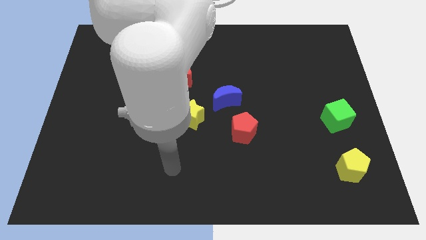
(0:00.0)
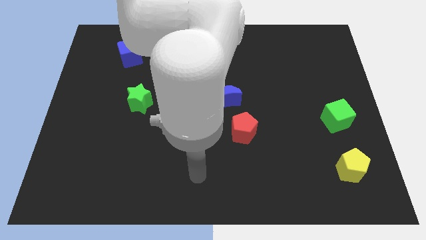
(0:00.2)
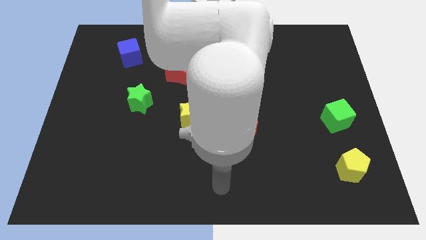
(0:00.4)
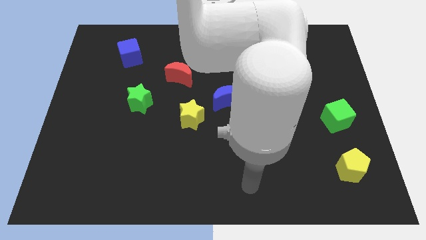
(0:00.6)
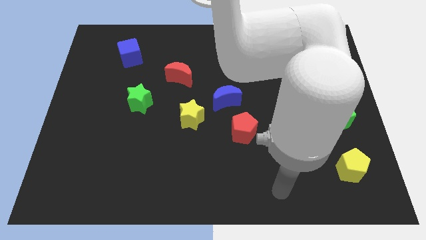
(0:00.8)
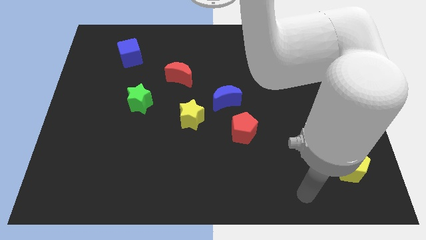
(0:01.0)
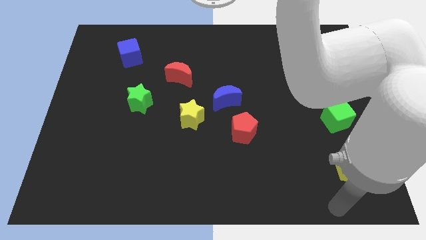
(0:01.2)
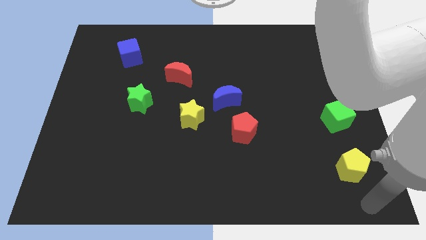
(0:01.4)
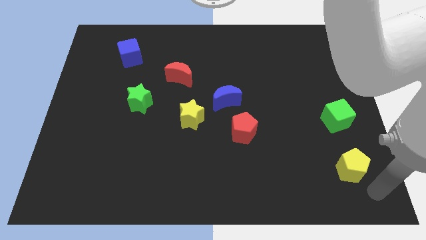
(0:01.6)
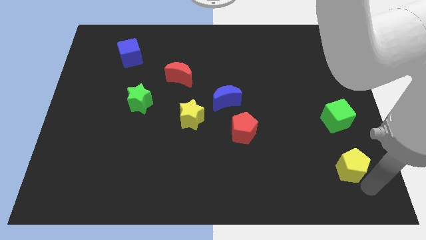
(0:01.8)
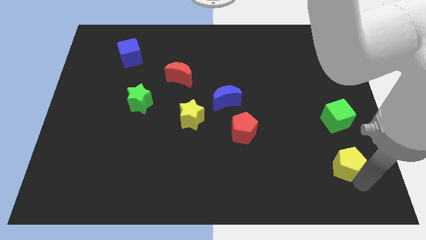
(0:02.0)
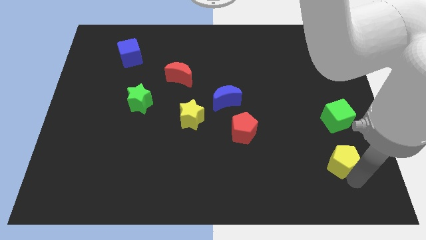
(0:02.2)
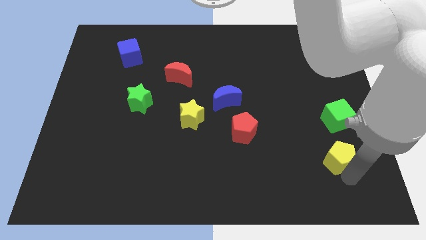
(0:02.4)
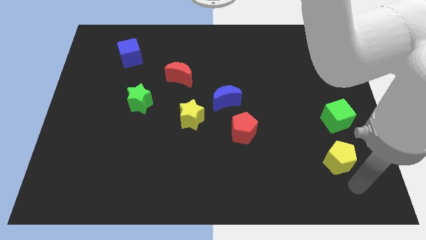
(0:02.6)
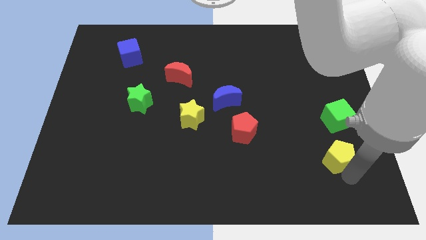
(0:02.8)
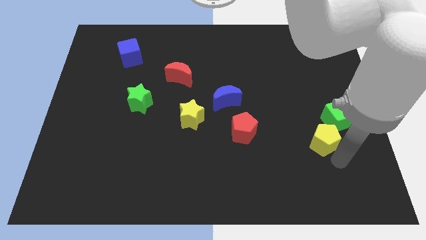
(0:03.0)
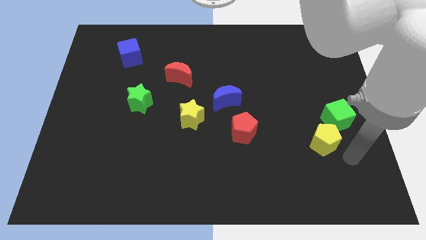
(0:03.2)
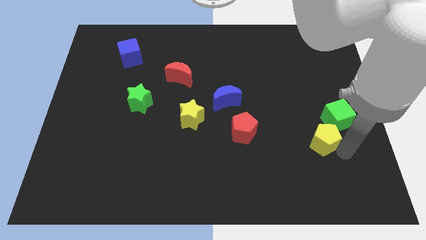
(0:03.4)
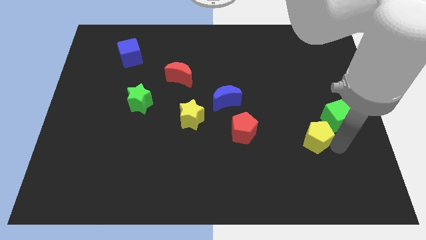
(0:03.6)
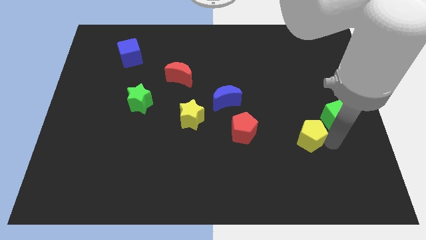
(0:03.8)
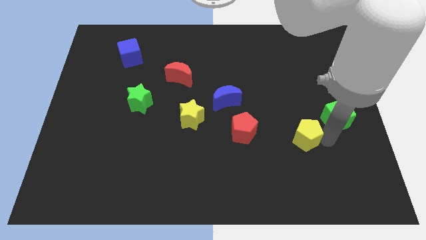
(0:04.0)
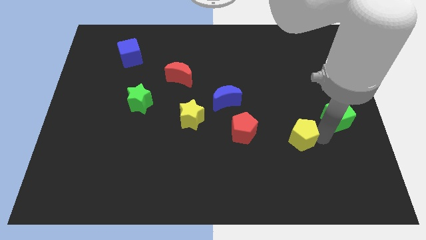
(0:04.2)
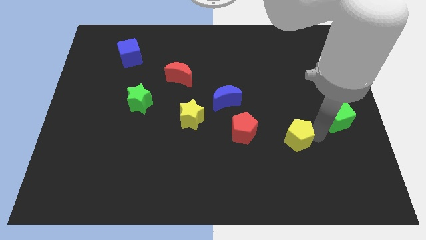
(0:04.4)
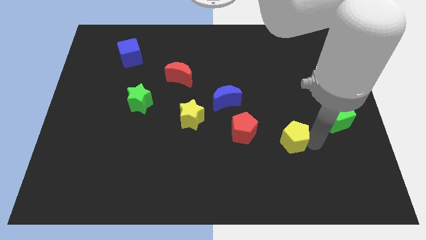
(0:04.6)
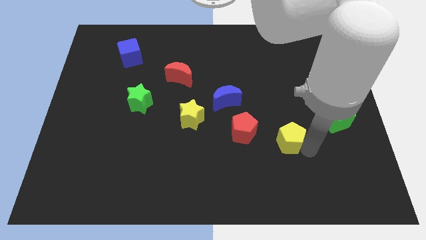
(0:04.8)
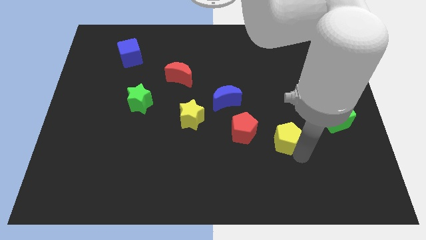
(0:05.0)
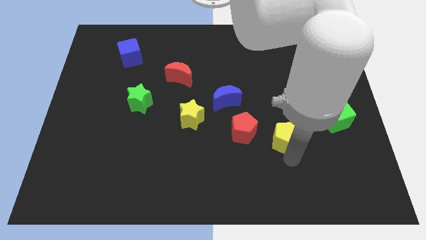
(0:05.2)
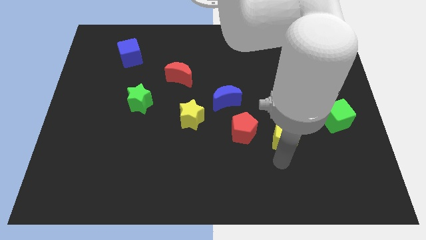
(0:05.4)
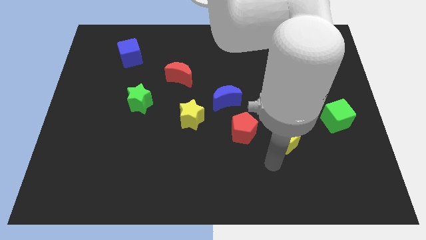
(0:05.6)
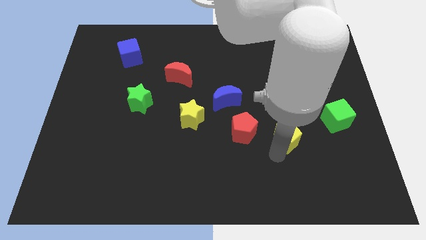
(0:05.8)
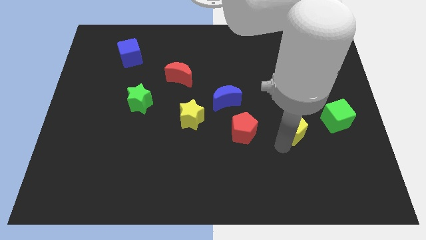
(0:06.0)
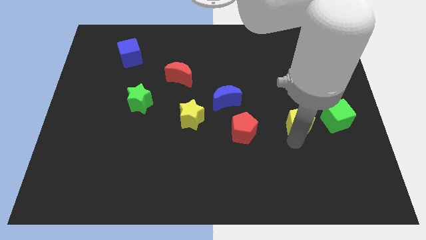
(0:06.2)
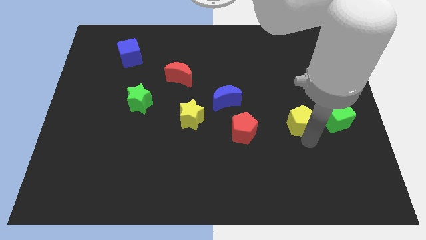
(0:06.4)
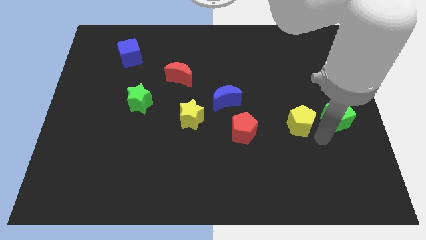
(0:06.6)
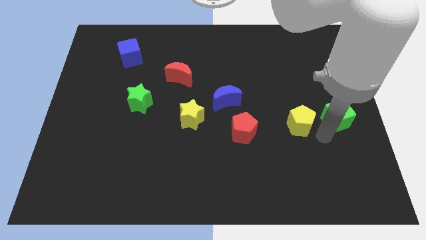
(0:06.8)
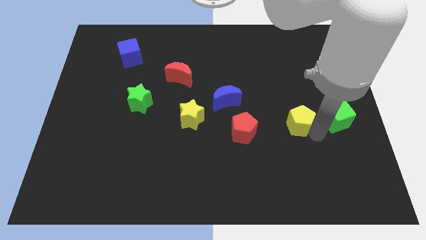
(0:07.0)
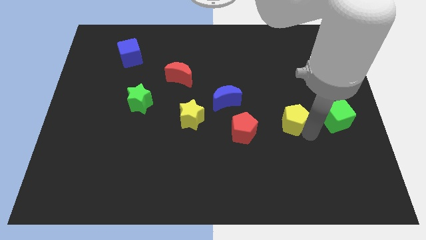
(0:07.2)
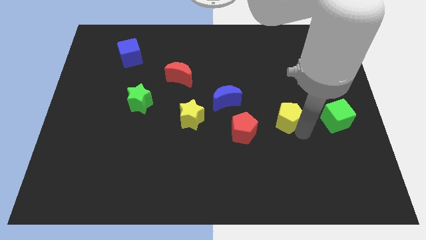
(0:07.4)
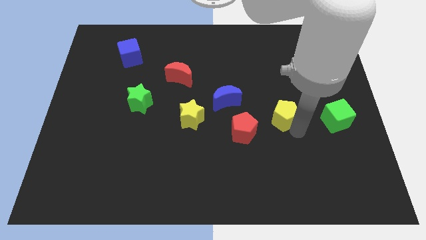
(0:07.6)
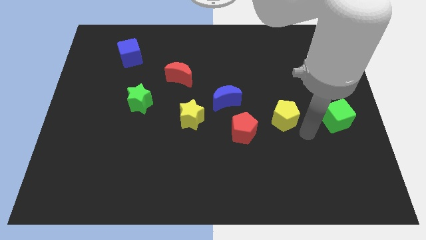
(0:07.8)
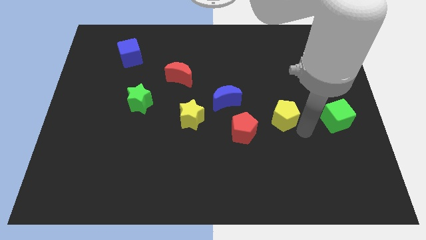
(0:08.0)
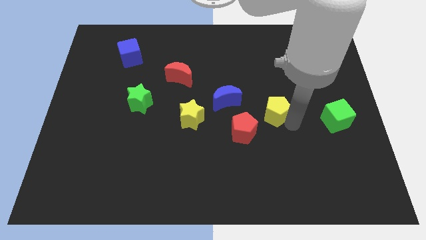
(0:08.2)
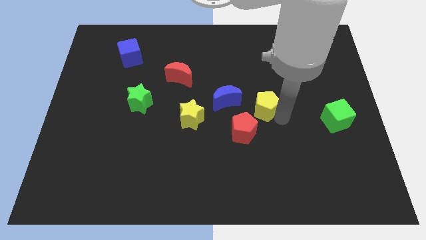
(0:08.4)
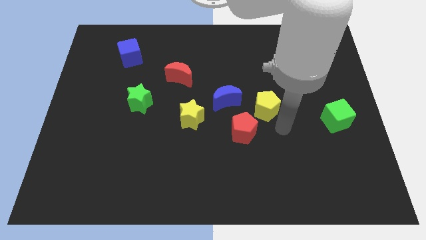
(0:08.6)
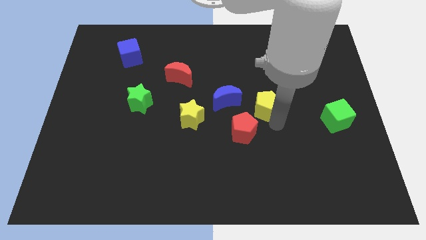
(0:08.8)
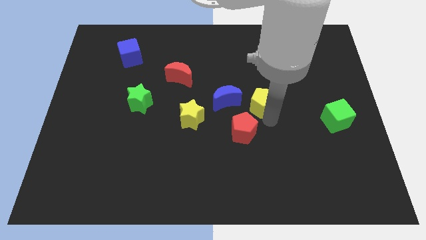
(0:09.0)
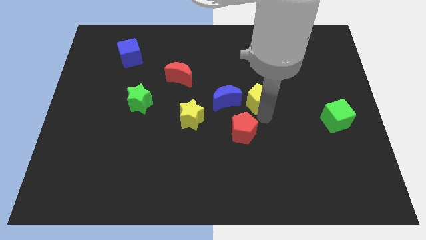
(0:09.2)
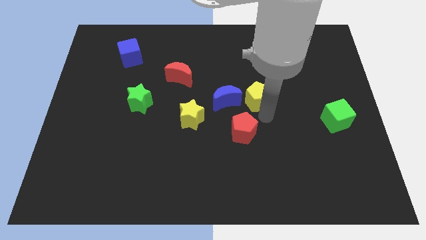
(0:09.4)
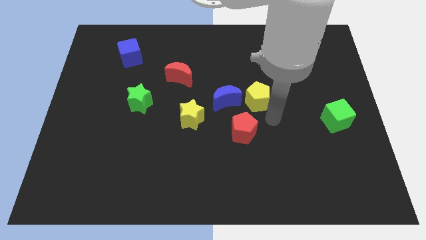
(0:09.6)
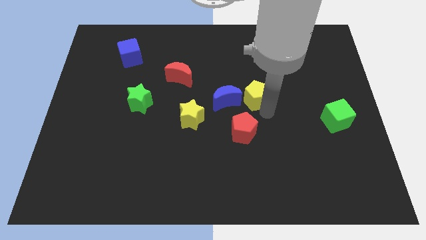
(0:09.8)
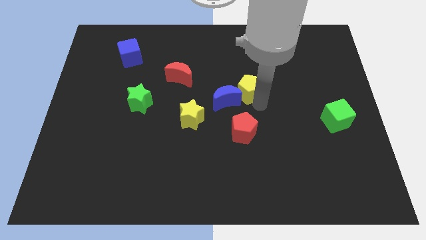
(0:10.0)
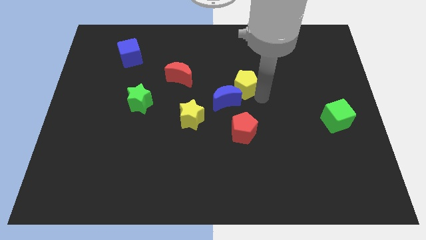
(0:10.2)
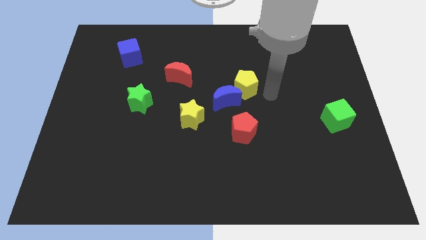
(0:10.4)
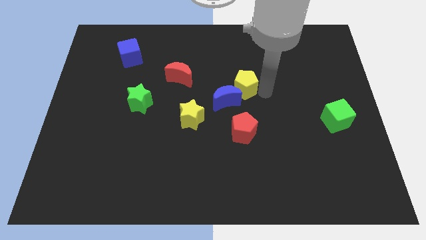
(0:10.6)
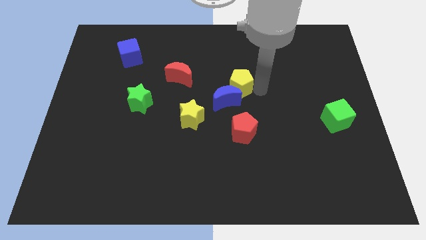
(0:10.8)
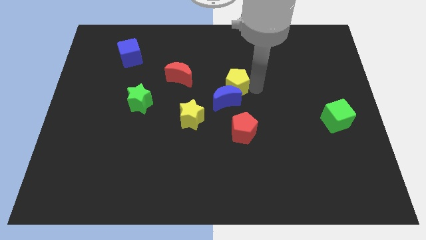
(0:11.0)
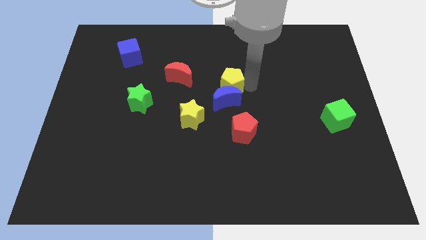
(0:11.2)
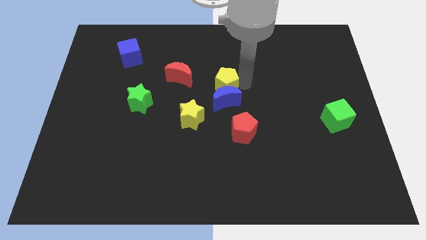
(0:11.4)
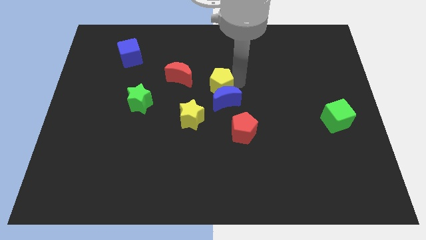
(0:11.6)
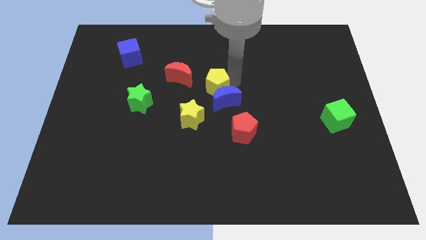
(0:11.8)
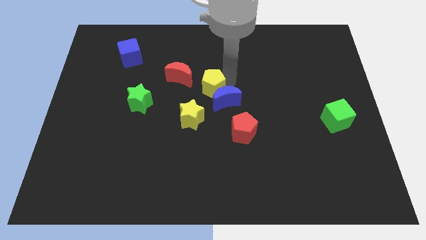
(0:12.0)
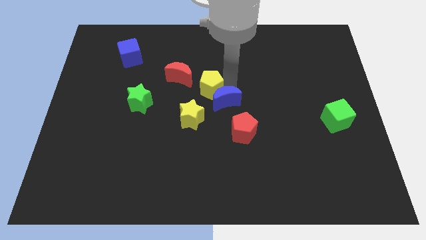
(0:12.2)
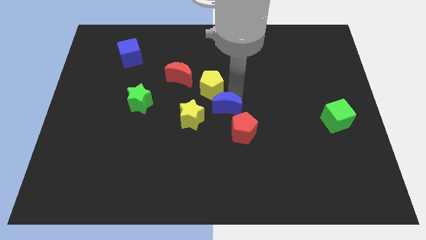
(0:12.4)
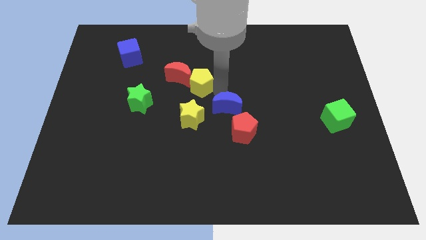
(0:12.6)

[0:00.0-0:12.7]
move the yellow pentagon close to the red moon
